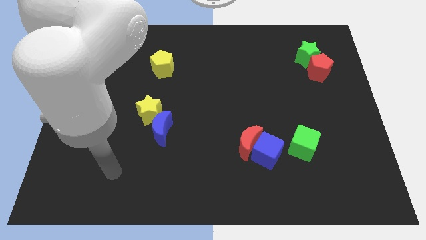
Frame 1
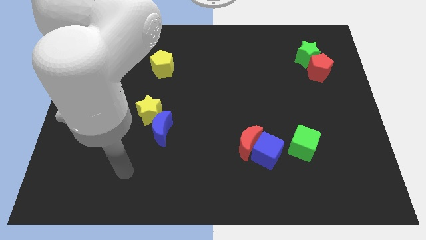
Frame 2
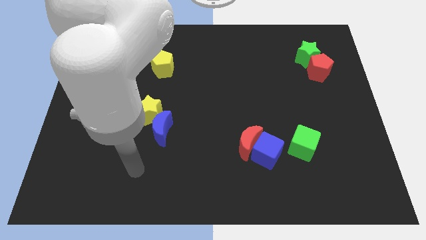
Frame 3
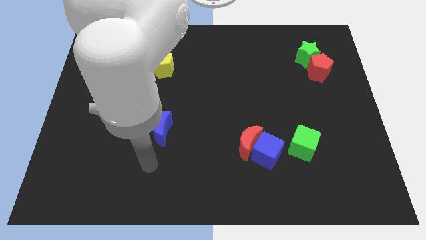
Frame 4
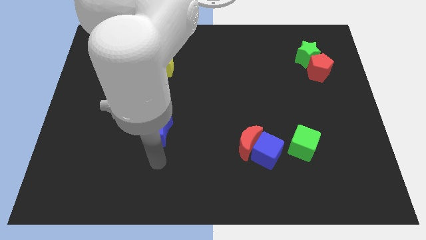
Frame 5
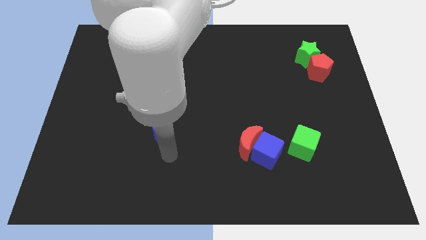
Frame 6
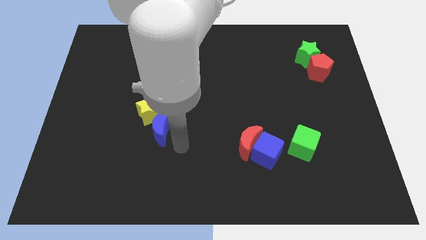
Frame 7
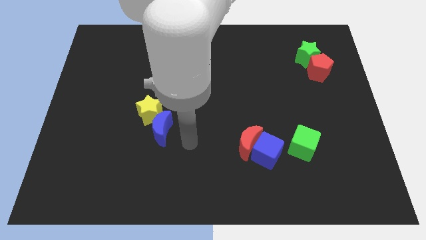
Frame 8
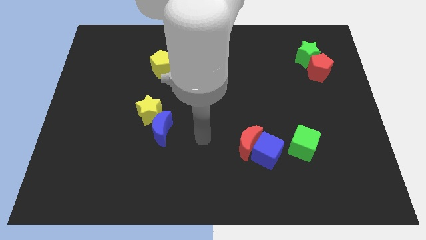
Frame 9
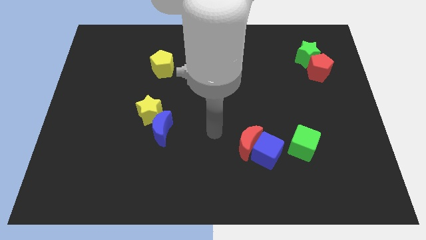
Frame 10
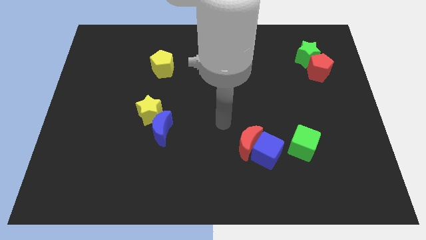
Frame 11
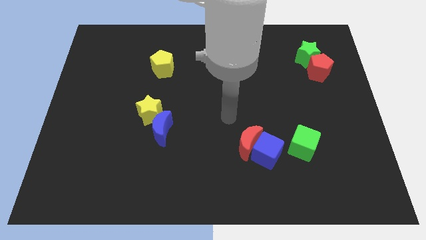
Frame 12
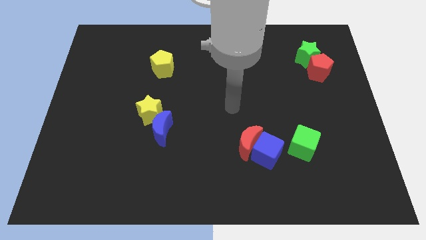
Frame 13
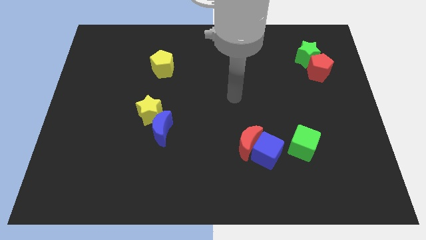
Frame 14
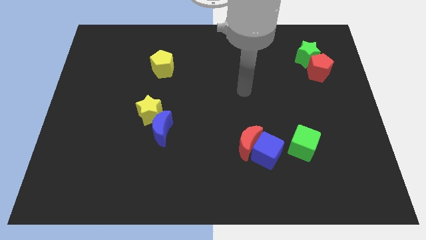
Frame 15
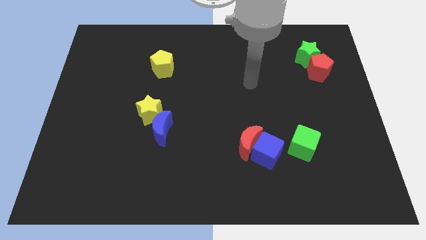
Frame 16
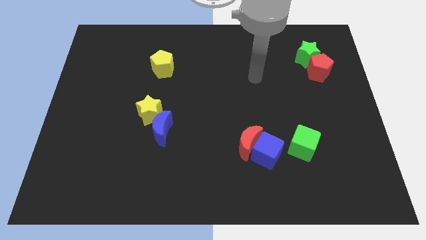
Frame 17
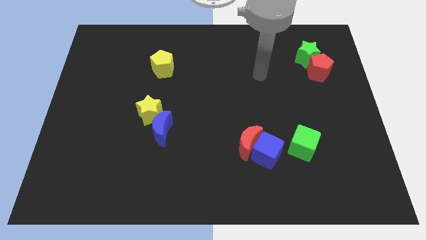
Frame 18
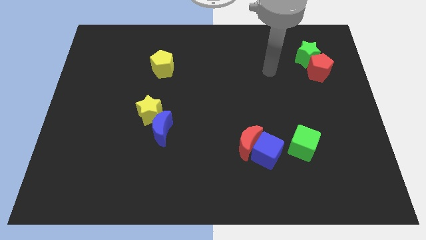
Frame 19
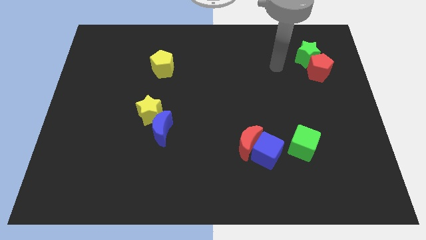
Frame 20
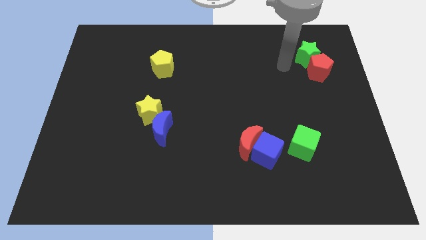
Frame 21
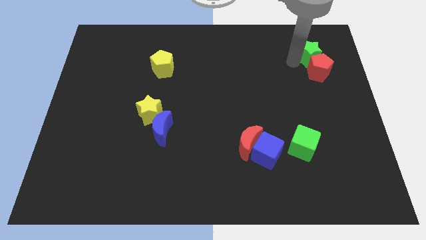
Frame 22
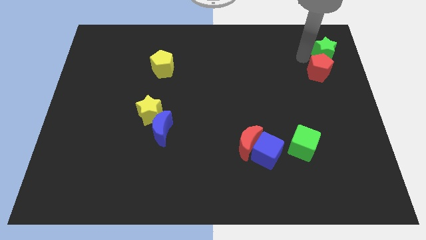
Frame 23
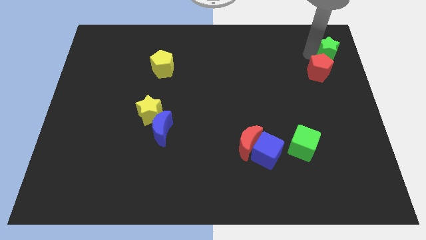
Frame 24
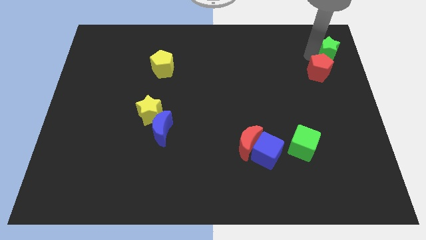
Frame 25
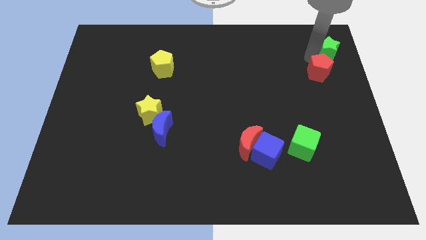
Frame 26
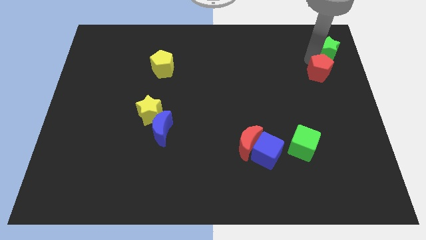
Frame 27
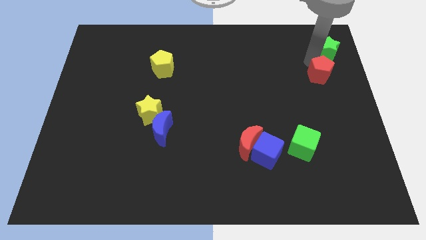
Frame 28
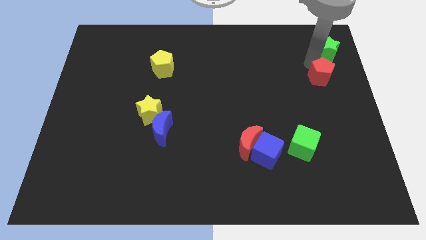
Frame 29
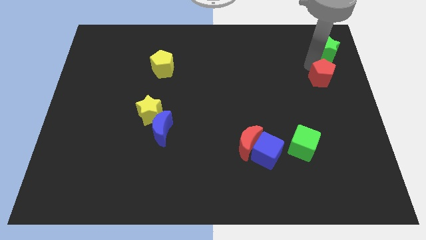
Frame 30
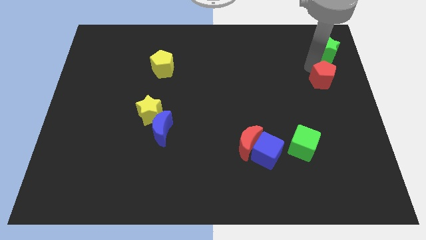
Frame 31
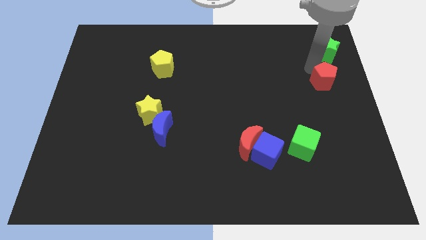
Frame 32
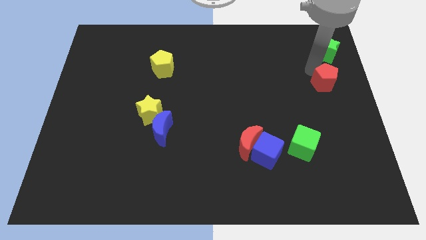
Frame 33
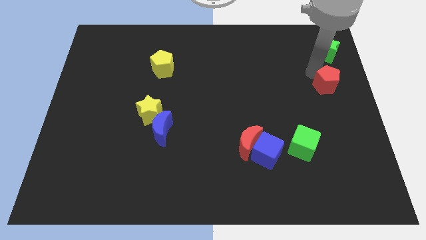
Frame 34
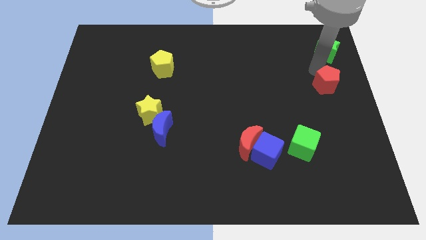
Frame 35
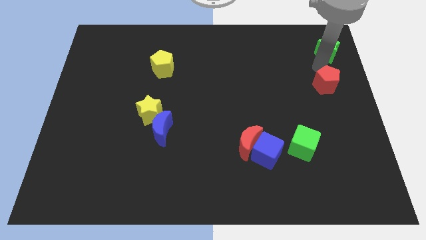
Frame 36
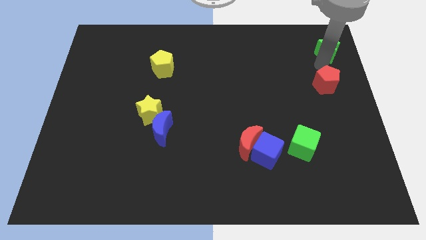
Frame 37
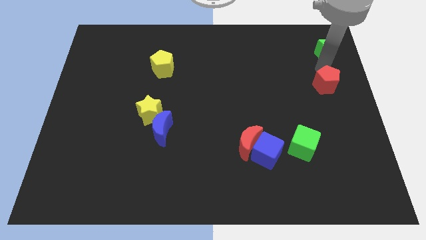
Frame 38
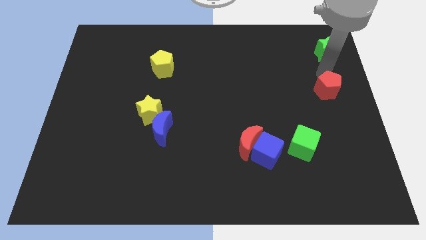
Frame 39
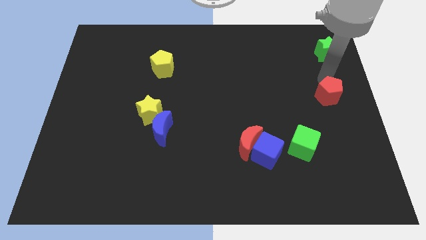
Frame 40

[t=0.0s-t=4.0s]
push the red pentagon down a little bit

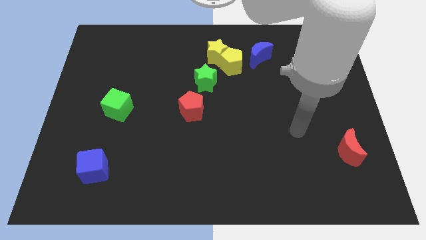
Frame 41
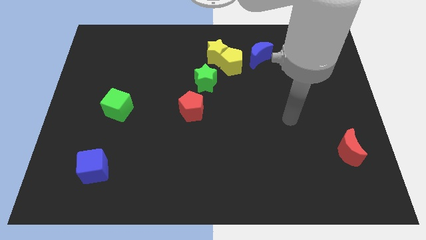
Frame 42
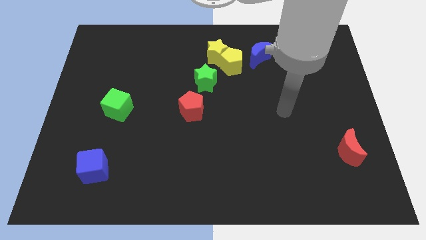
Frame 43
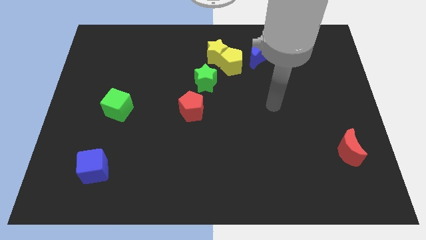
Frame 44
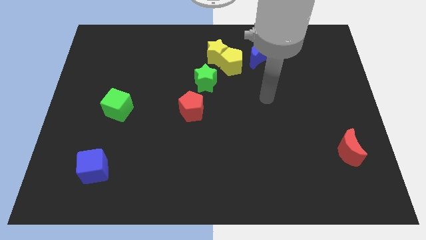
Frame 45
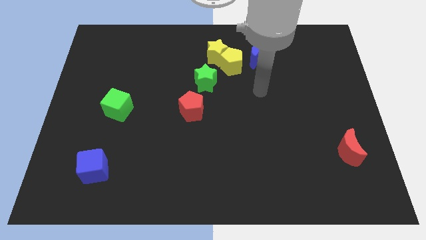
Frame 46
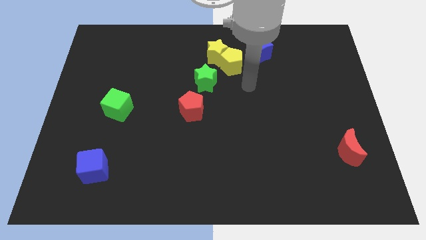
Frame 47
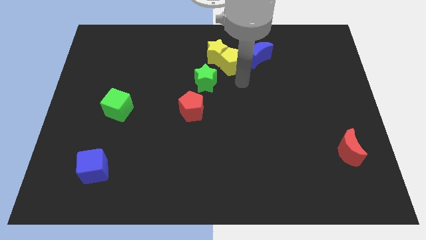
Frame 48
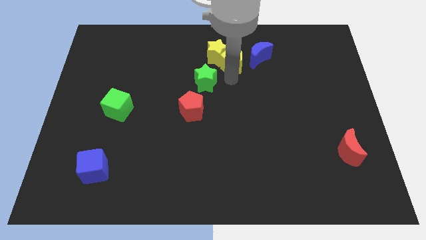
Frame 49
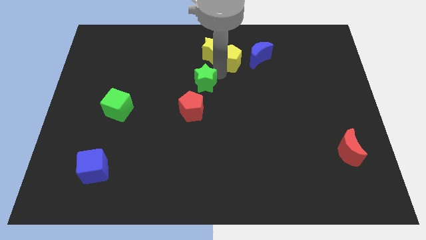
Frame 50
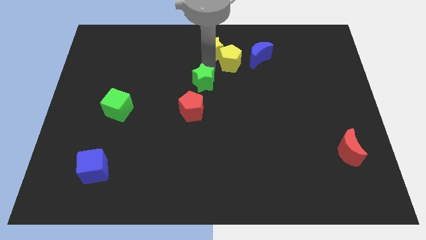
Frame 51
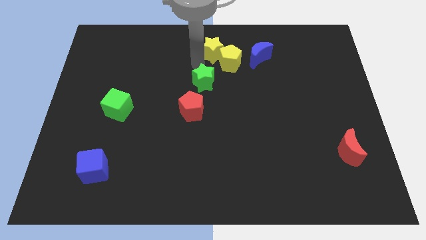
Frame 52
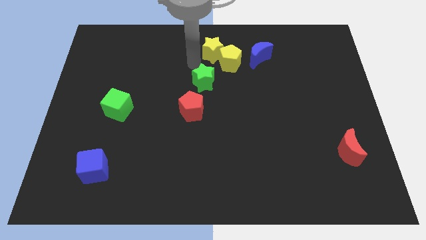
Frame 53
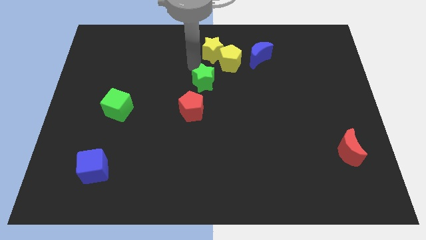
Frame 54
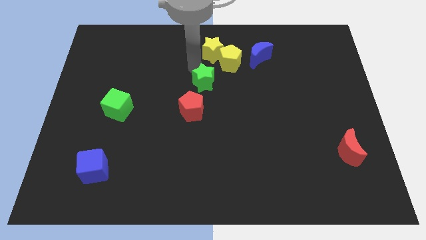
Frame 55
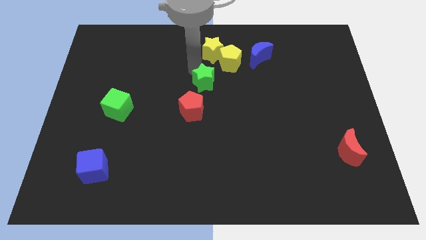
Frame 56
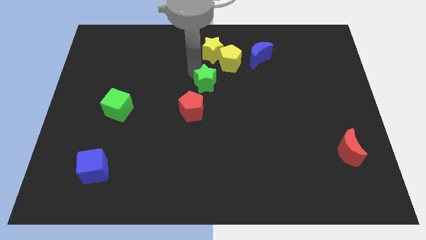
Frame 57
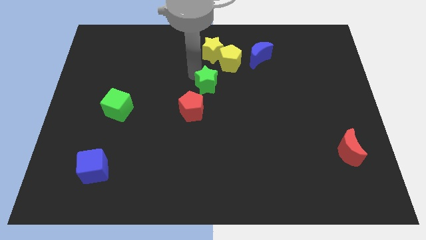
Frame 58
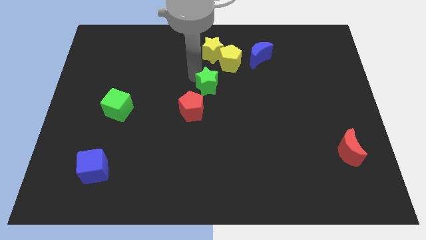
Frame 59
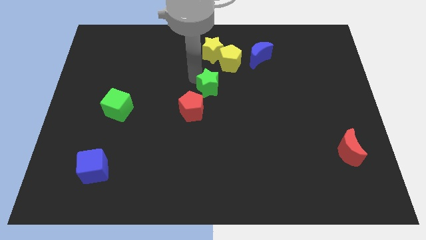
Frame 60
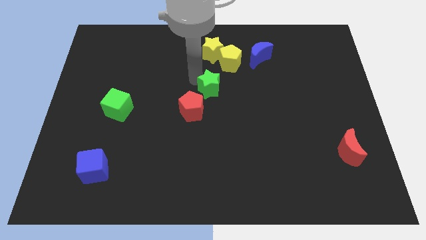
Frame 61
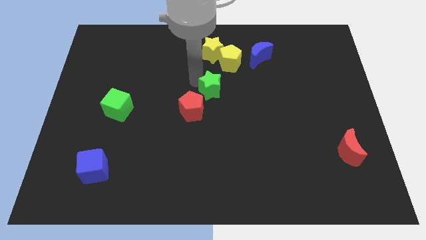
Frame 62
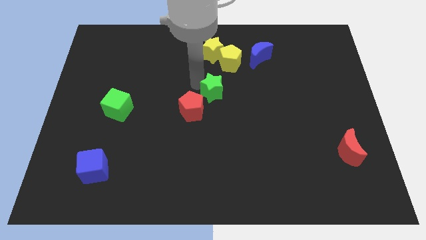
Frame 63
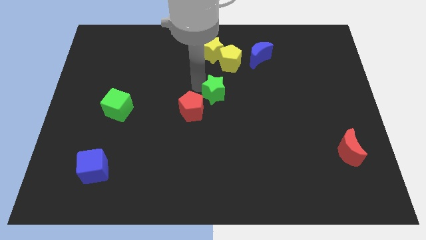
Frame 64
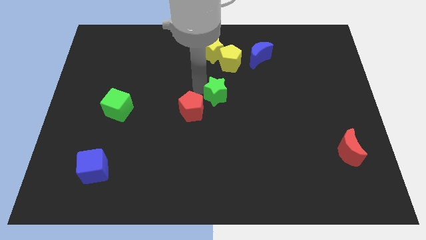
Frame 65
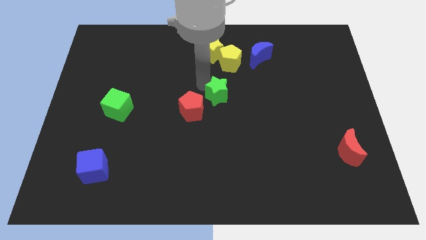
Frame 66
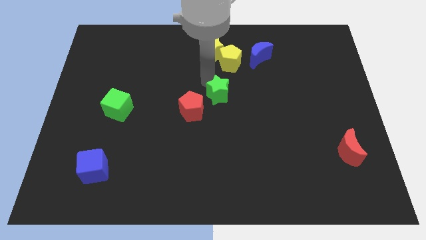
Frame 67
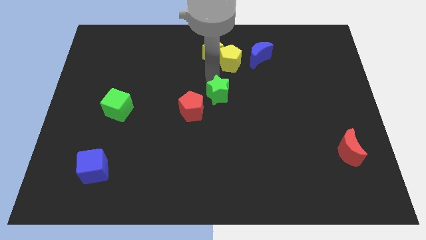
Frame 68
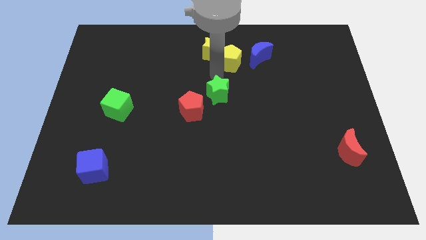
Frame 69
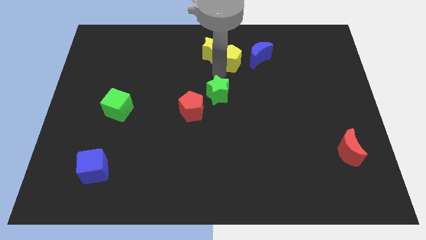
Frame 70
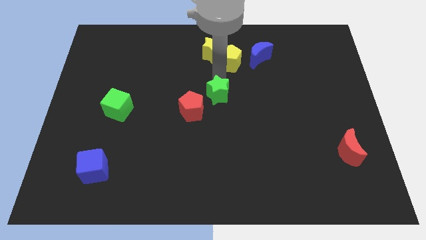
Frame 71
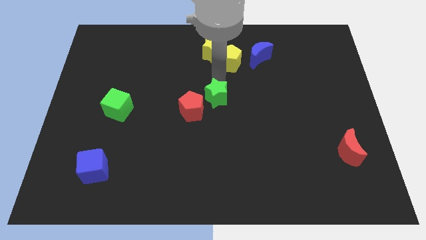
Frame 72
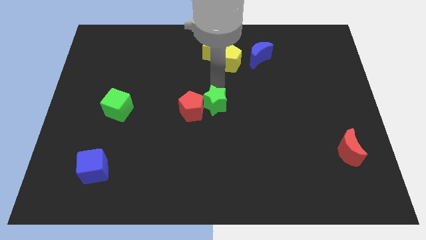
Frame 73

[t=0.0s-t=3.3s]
slightly slide the green star down

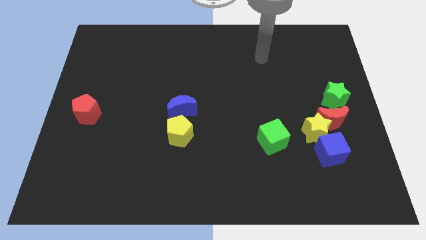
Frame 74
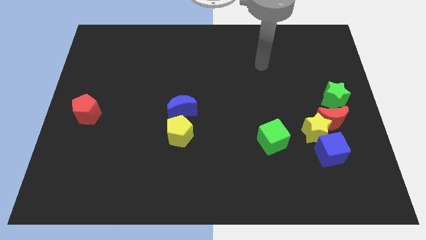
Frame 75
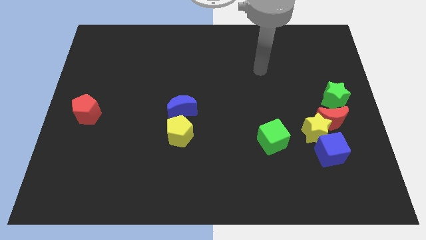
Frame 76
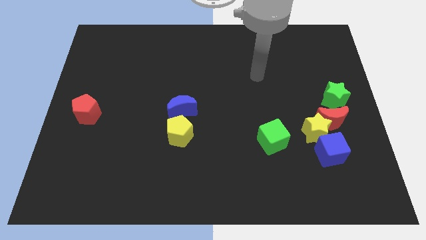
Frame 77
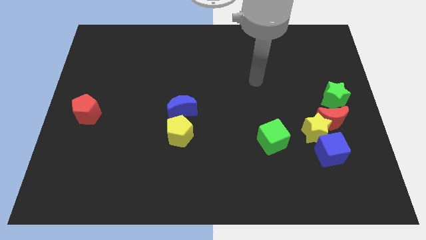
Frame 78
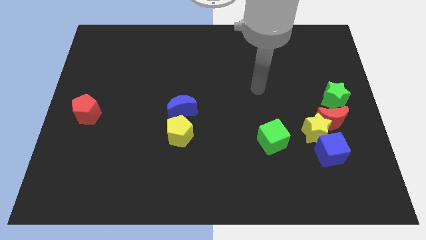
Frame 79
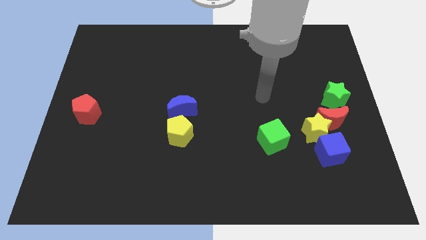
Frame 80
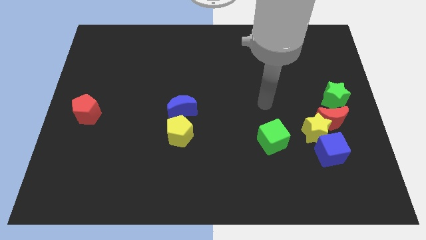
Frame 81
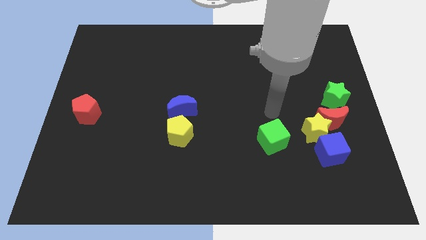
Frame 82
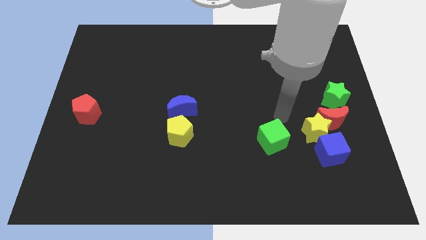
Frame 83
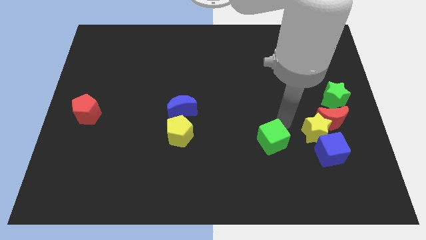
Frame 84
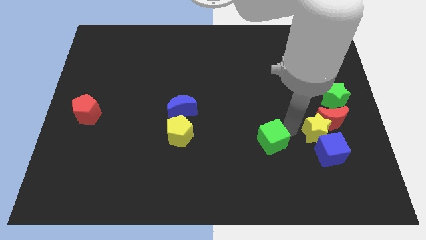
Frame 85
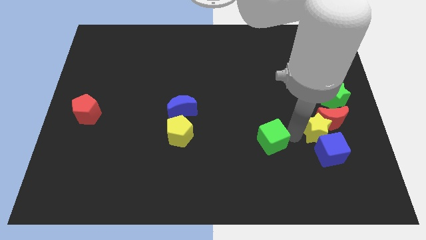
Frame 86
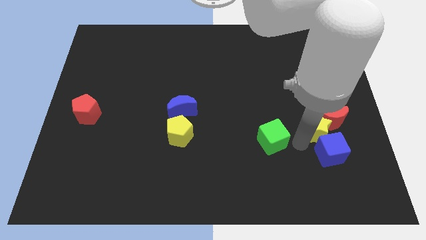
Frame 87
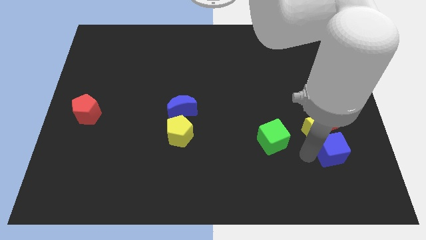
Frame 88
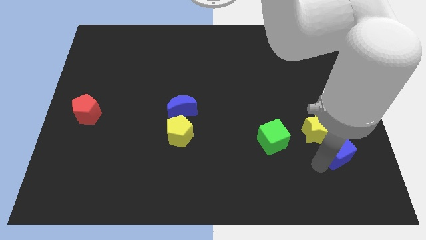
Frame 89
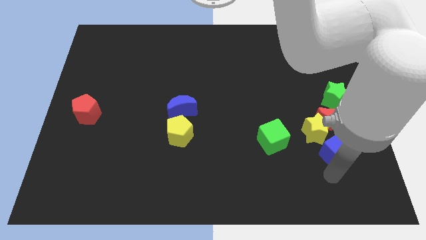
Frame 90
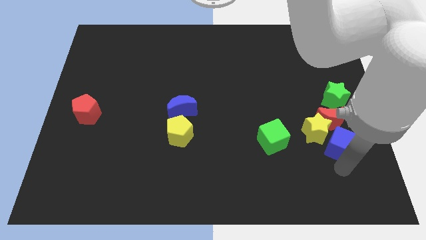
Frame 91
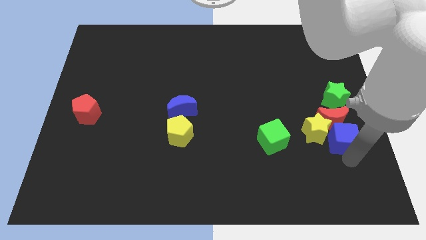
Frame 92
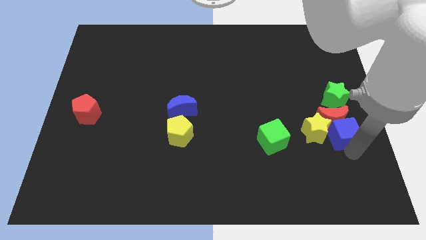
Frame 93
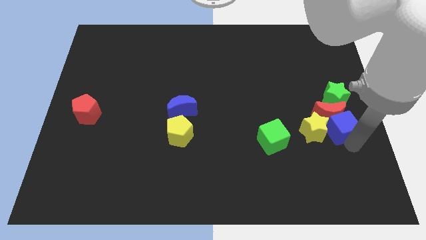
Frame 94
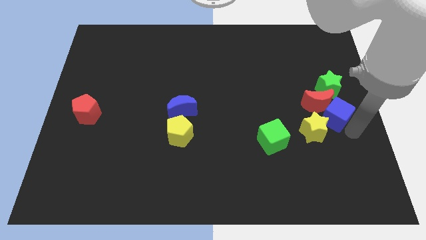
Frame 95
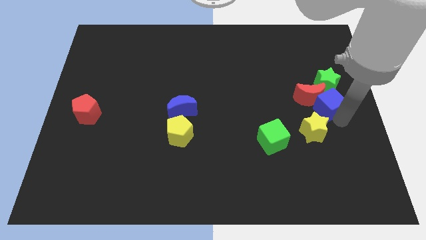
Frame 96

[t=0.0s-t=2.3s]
push the red moon upwards and to the left slightly
